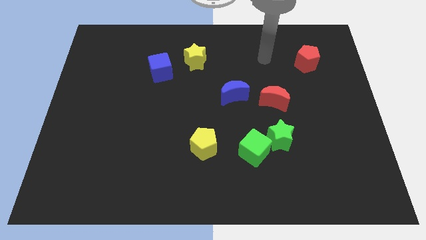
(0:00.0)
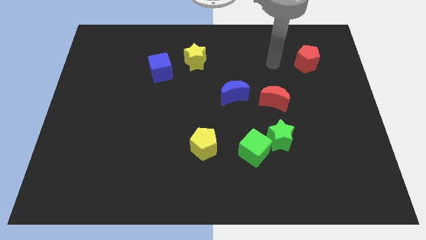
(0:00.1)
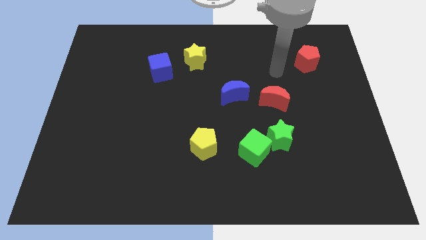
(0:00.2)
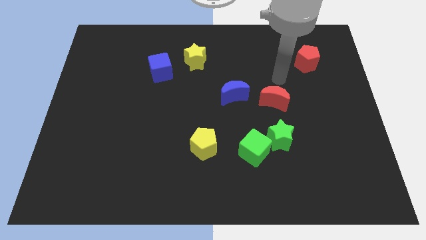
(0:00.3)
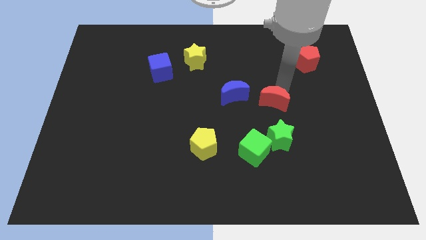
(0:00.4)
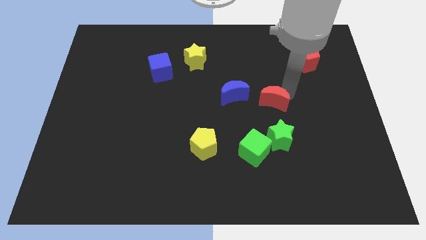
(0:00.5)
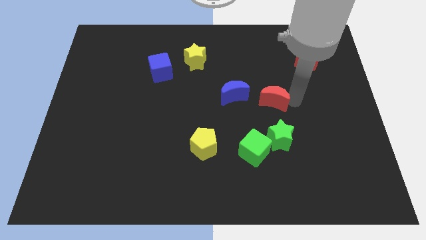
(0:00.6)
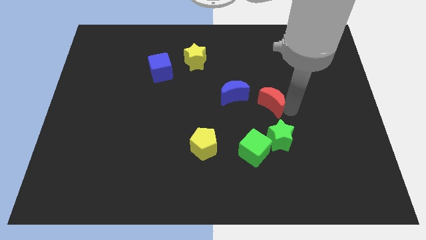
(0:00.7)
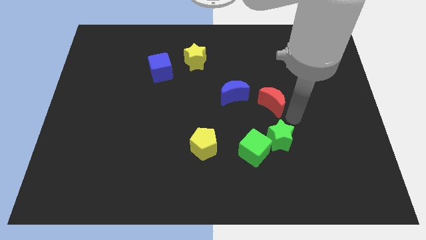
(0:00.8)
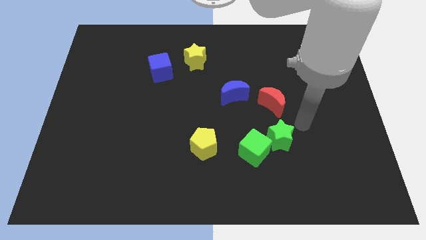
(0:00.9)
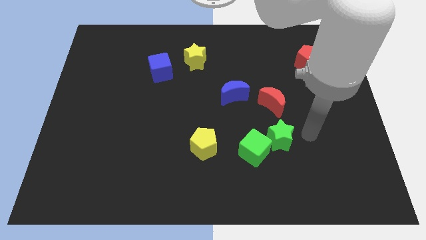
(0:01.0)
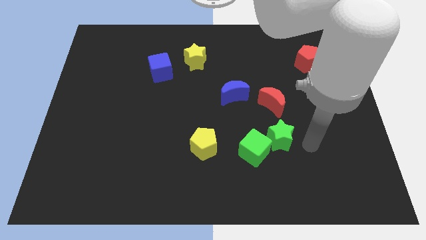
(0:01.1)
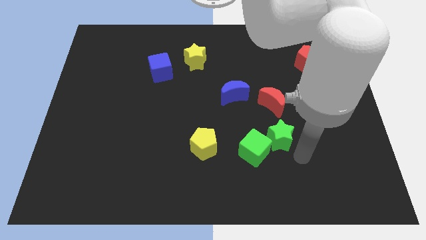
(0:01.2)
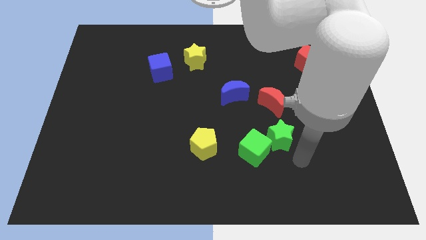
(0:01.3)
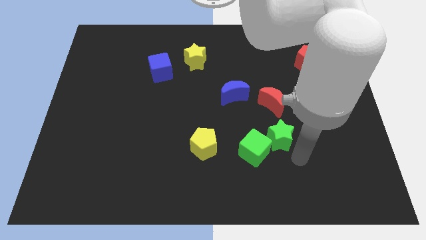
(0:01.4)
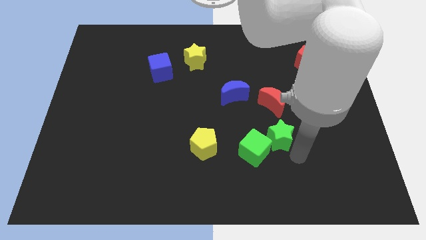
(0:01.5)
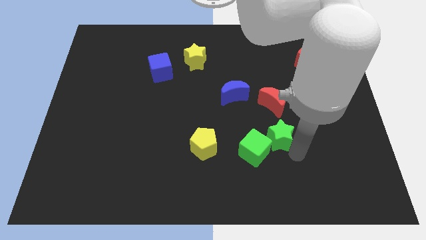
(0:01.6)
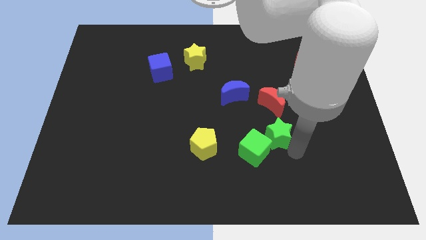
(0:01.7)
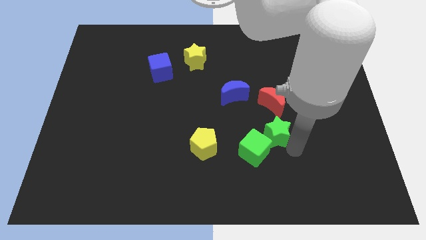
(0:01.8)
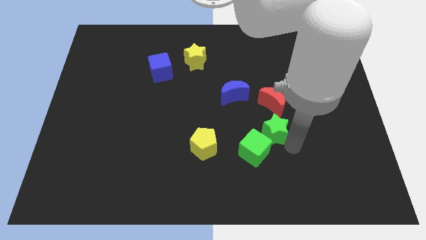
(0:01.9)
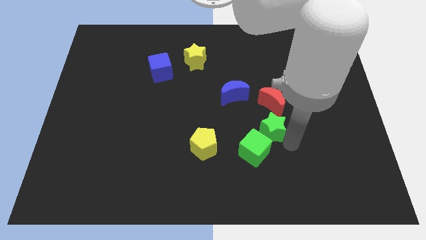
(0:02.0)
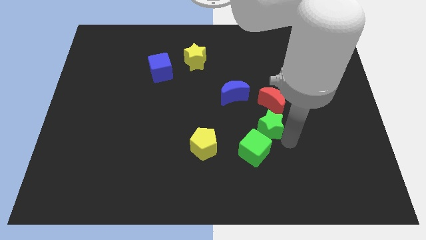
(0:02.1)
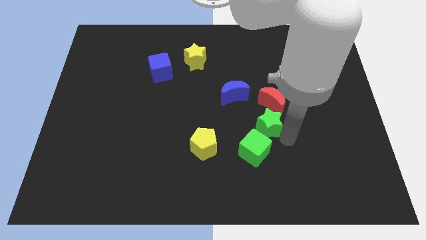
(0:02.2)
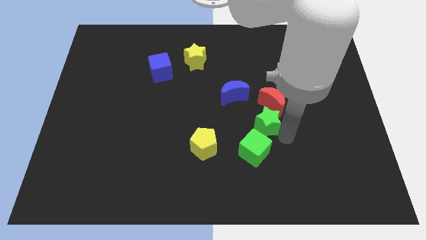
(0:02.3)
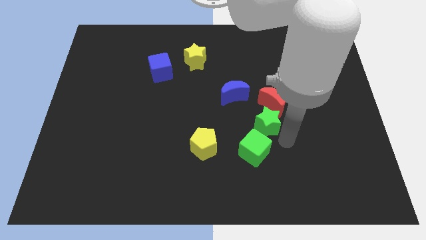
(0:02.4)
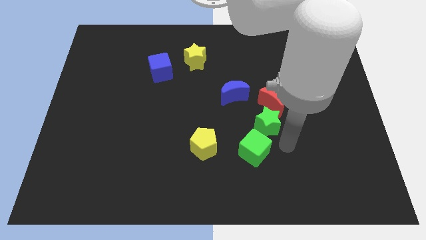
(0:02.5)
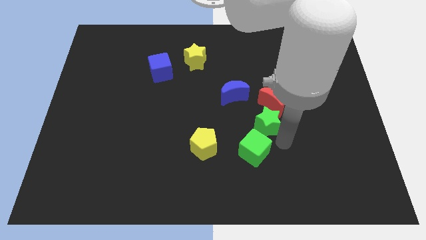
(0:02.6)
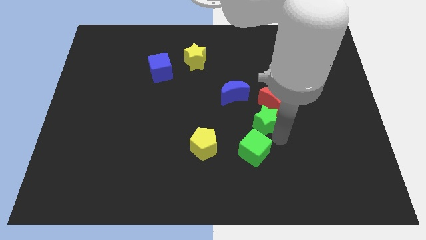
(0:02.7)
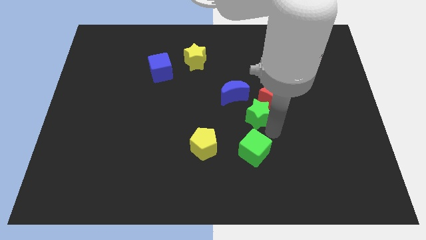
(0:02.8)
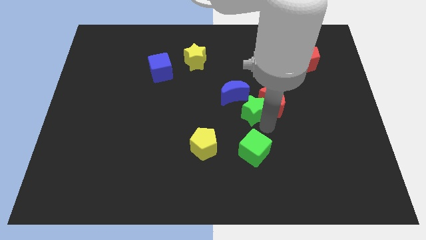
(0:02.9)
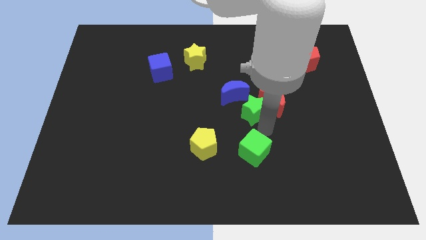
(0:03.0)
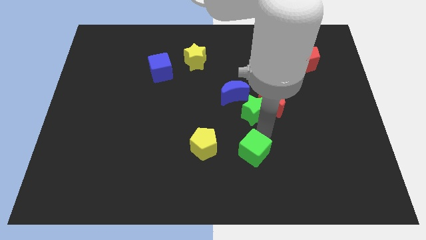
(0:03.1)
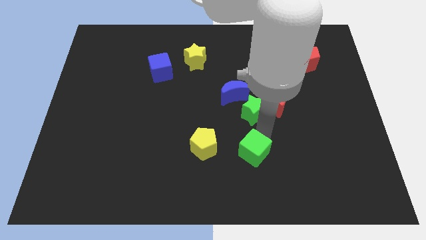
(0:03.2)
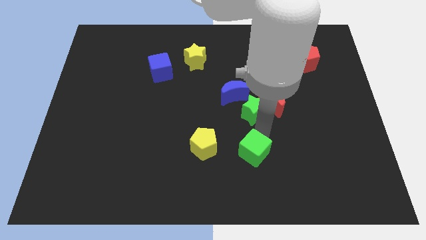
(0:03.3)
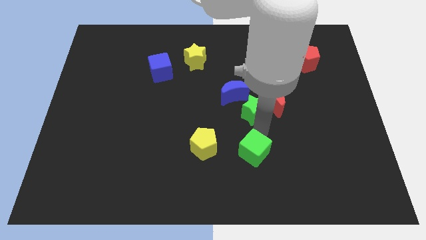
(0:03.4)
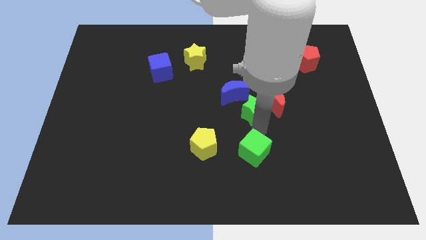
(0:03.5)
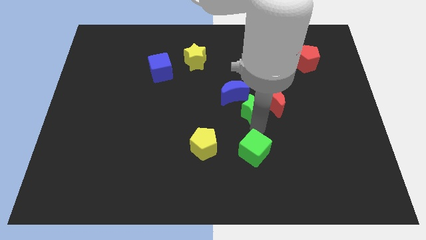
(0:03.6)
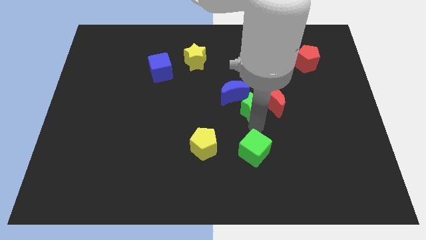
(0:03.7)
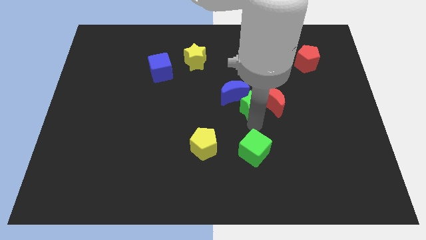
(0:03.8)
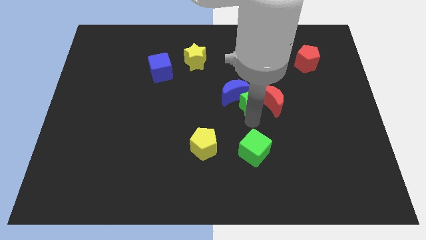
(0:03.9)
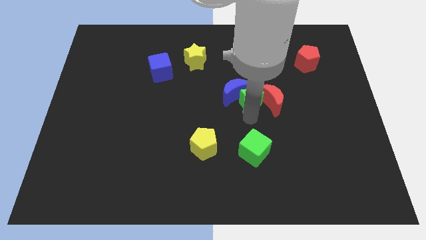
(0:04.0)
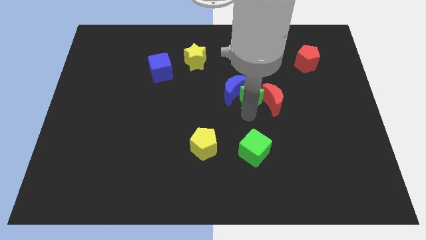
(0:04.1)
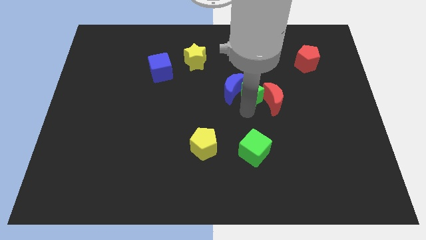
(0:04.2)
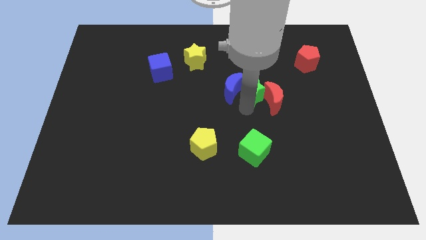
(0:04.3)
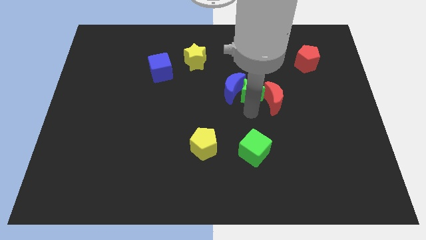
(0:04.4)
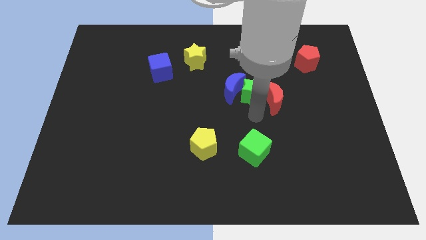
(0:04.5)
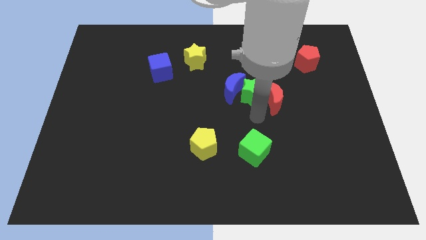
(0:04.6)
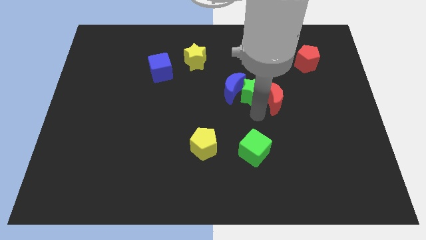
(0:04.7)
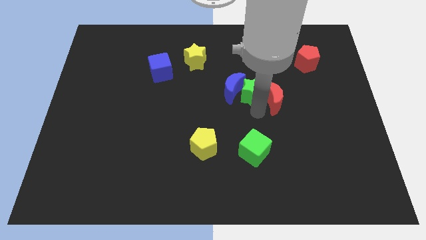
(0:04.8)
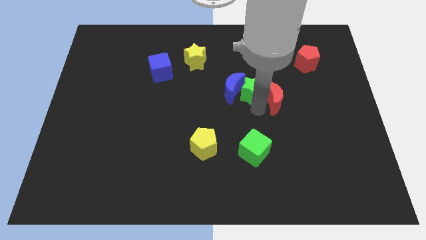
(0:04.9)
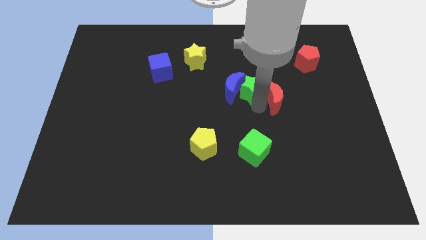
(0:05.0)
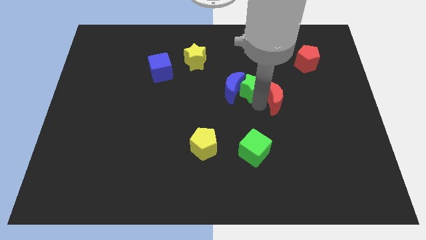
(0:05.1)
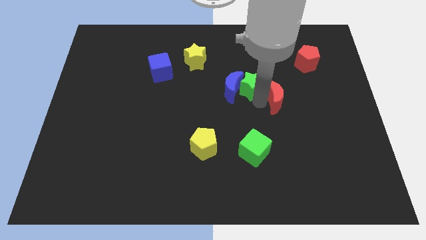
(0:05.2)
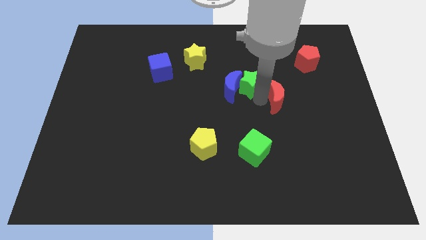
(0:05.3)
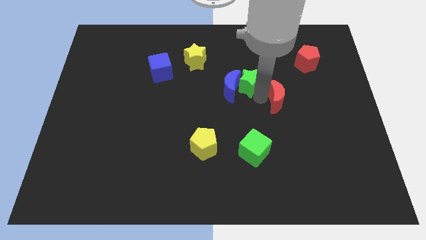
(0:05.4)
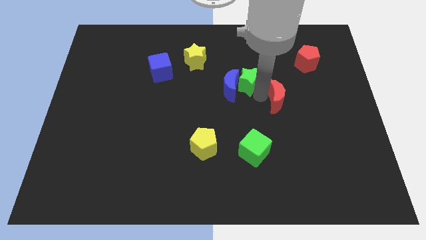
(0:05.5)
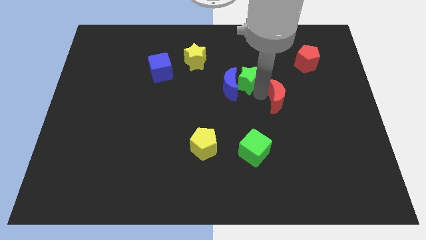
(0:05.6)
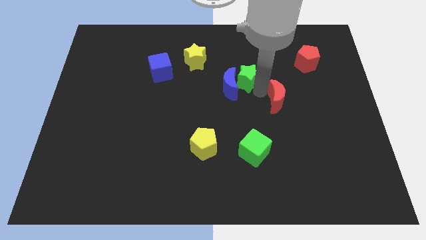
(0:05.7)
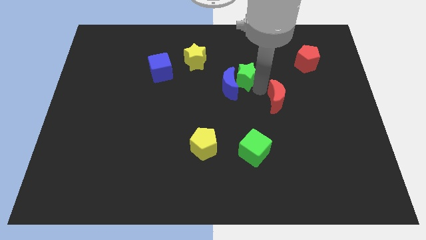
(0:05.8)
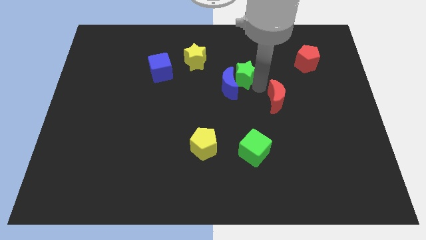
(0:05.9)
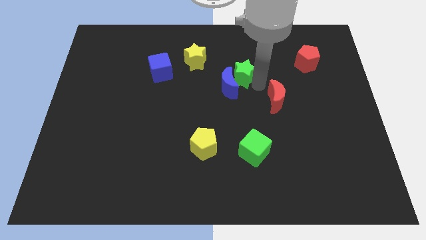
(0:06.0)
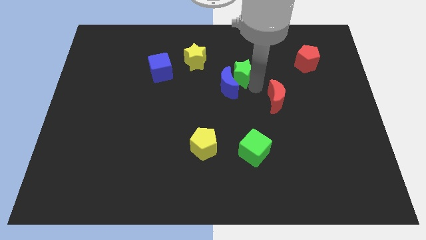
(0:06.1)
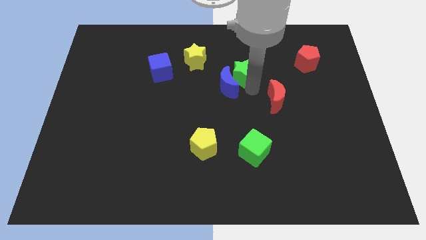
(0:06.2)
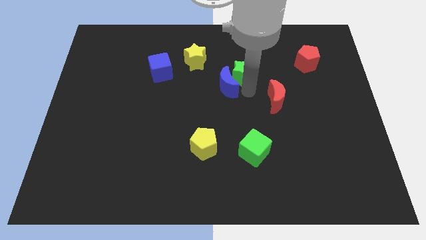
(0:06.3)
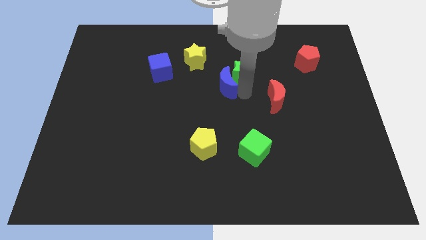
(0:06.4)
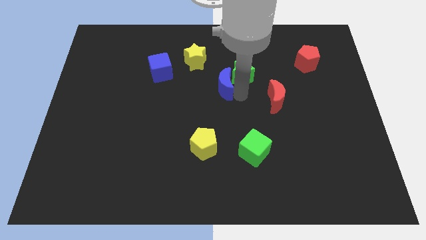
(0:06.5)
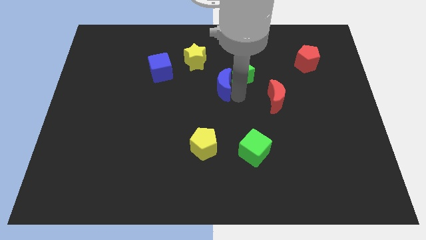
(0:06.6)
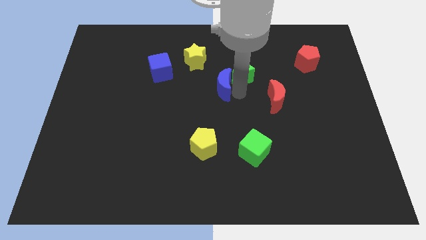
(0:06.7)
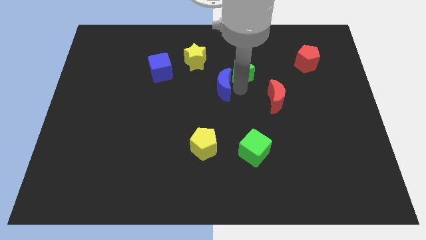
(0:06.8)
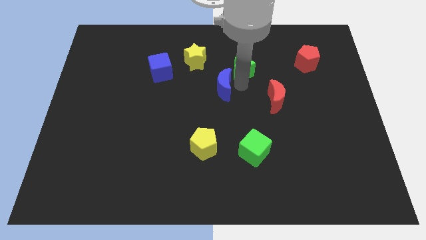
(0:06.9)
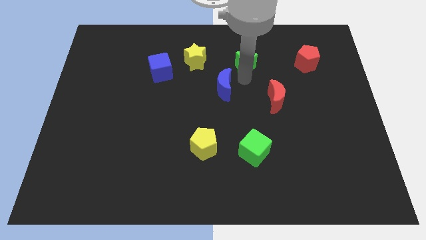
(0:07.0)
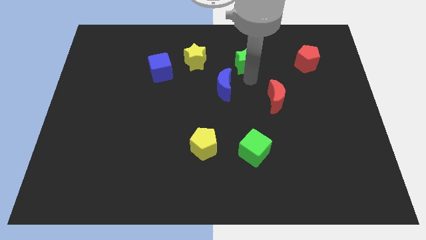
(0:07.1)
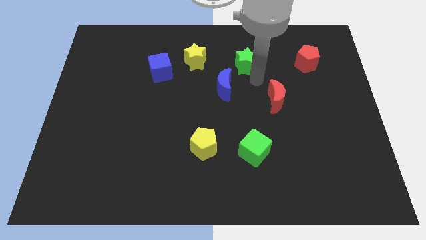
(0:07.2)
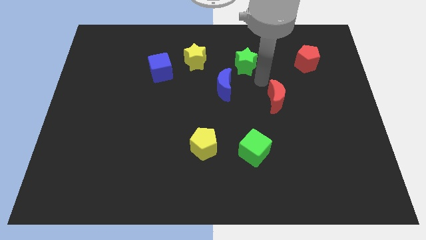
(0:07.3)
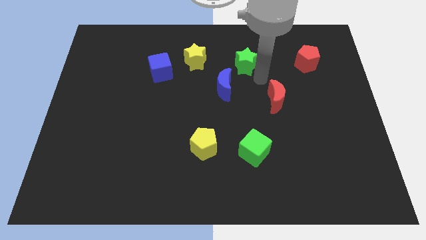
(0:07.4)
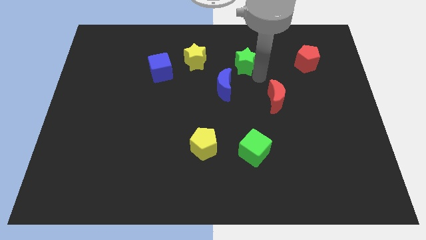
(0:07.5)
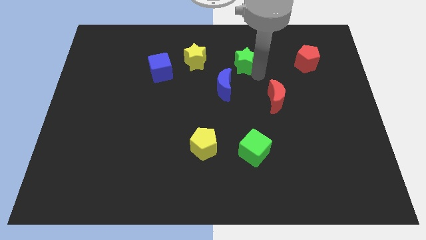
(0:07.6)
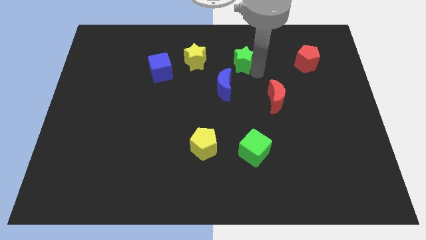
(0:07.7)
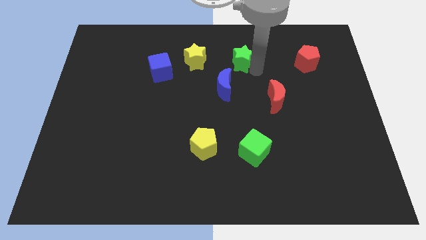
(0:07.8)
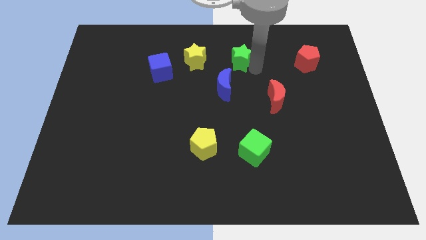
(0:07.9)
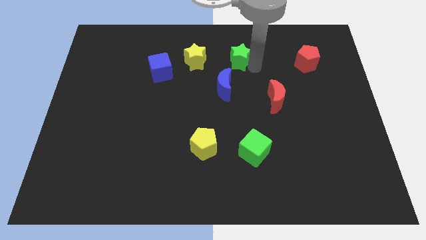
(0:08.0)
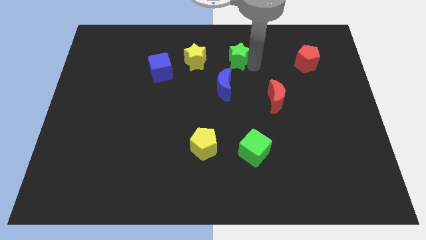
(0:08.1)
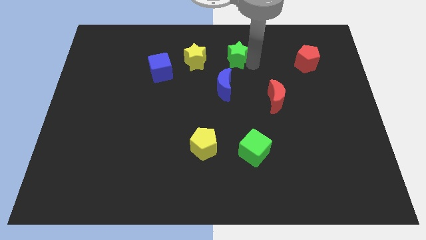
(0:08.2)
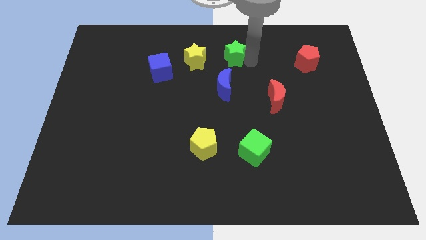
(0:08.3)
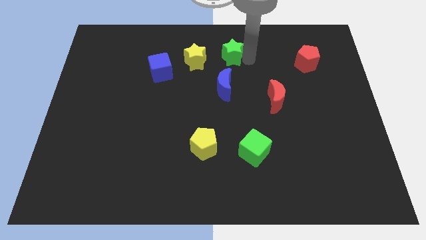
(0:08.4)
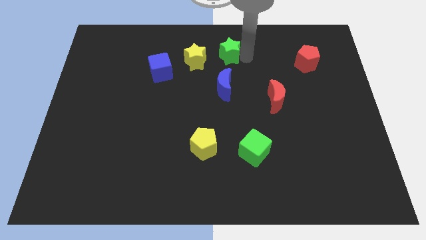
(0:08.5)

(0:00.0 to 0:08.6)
slide the green star to the towards your base
